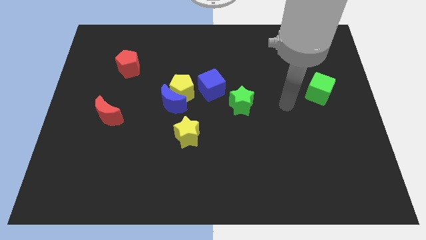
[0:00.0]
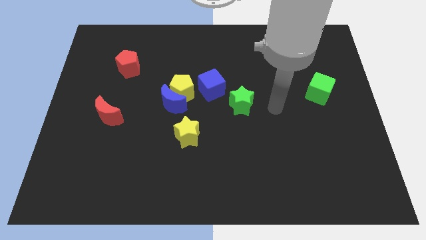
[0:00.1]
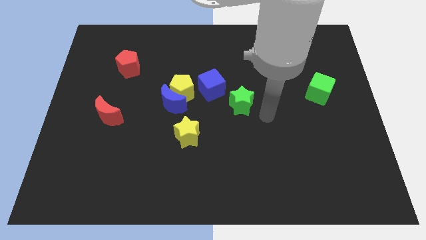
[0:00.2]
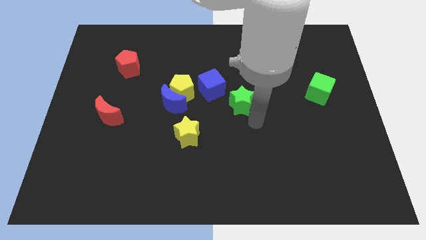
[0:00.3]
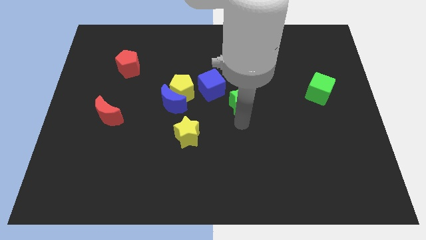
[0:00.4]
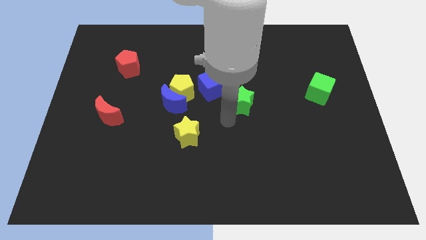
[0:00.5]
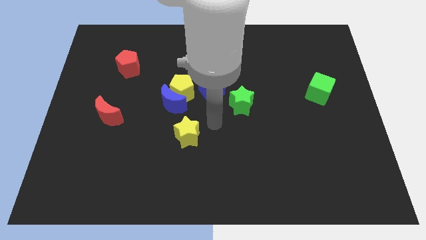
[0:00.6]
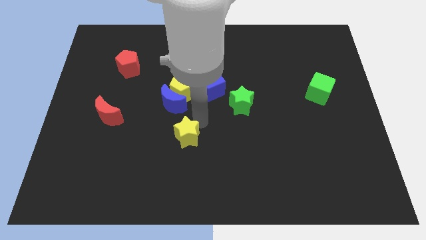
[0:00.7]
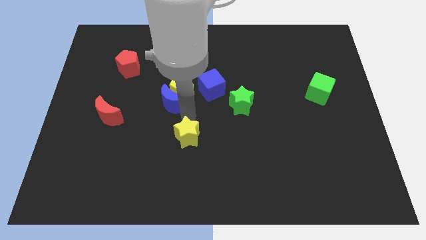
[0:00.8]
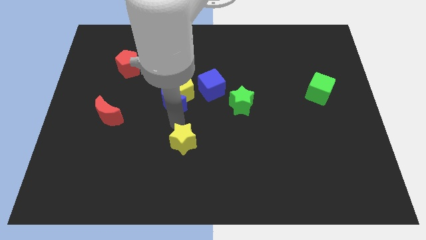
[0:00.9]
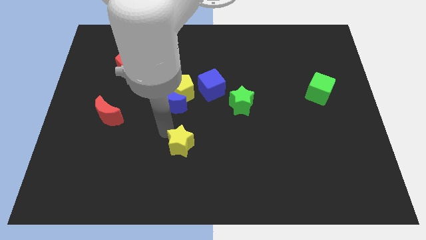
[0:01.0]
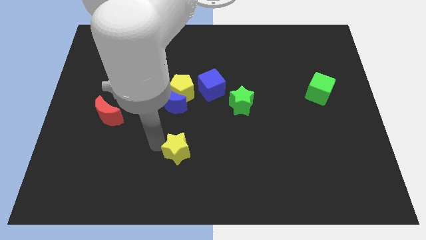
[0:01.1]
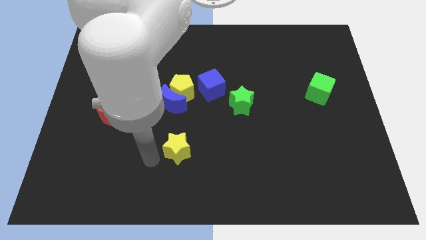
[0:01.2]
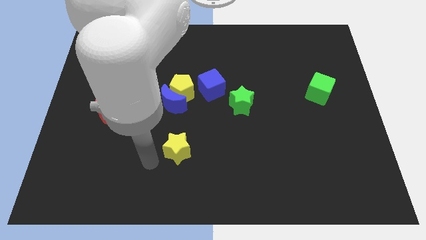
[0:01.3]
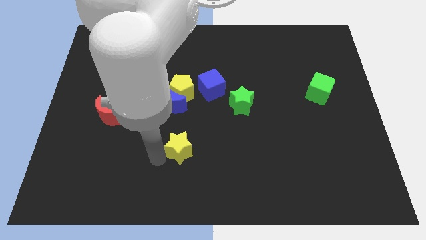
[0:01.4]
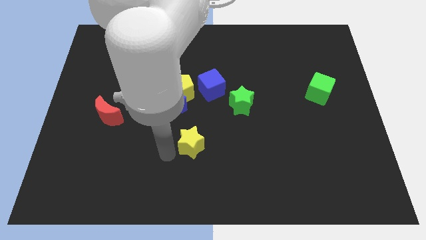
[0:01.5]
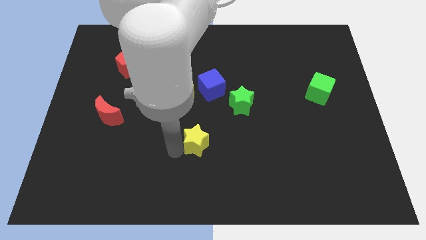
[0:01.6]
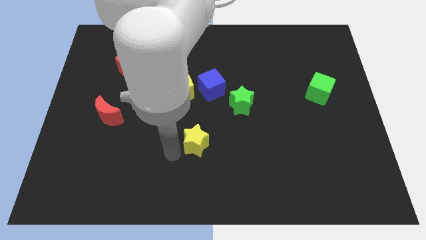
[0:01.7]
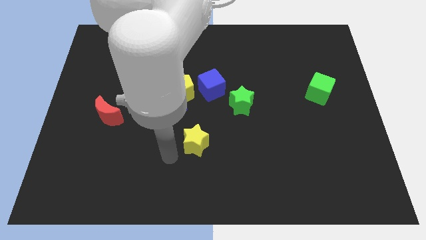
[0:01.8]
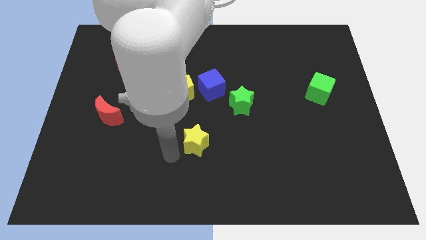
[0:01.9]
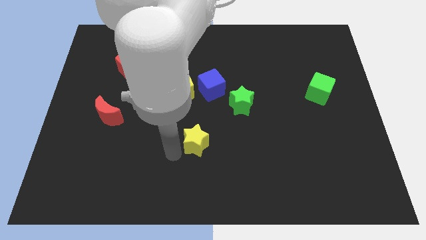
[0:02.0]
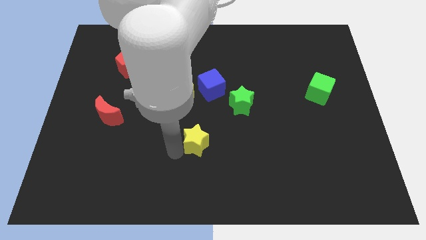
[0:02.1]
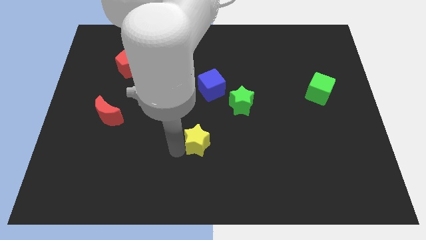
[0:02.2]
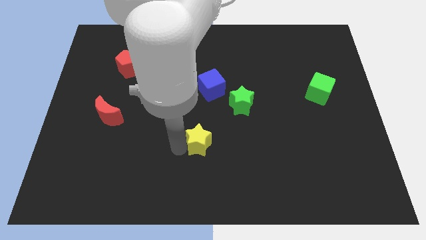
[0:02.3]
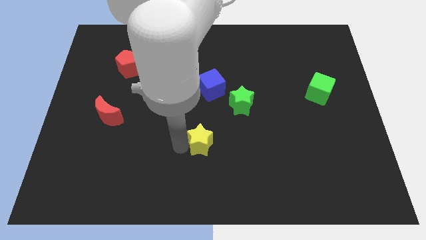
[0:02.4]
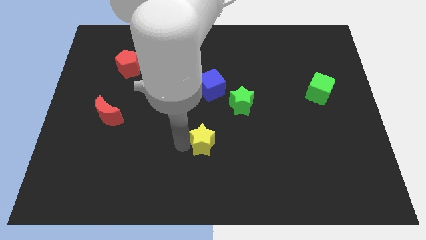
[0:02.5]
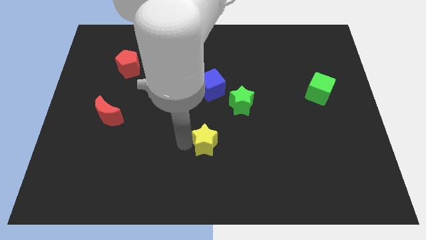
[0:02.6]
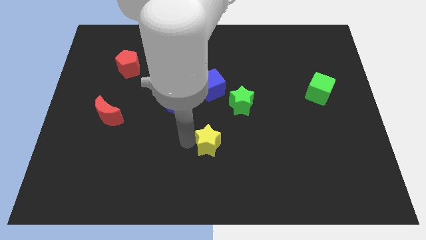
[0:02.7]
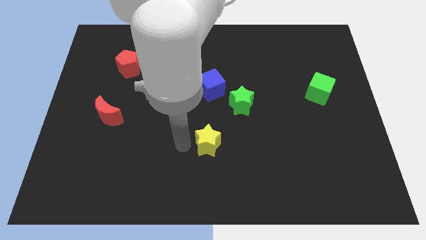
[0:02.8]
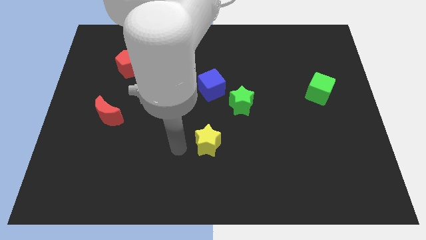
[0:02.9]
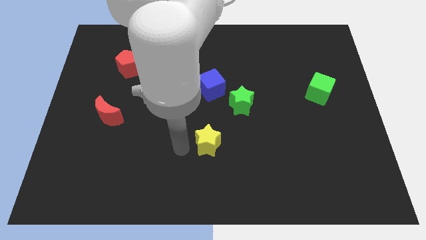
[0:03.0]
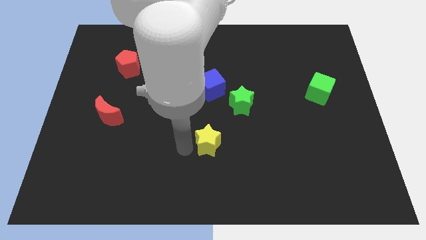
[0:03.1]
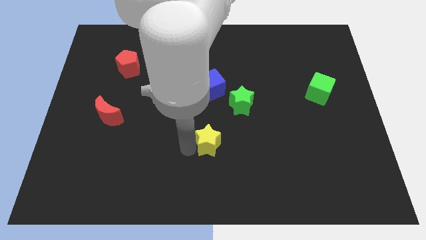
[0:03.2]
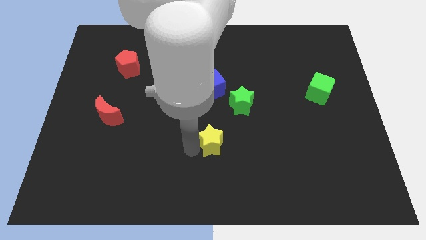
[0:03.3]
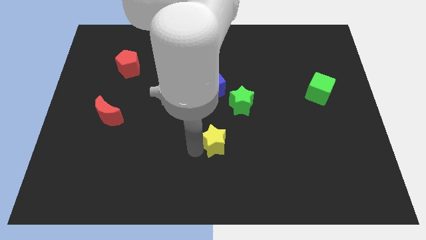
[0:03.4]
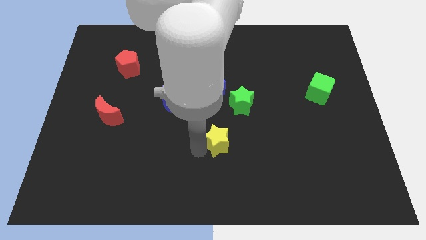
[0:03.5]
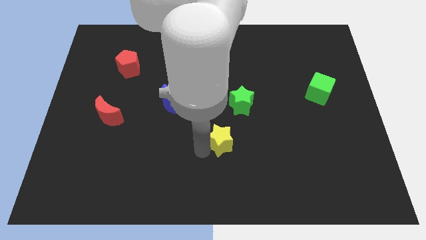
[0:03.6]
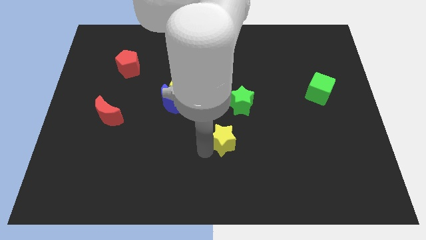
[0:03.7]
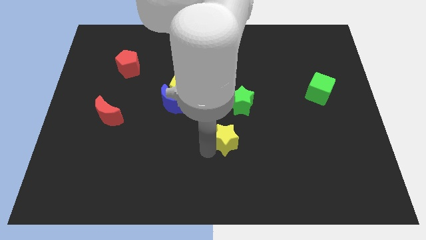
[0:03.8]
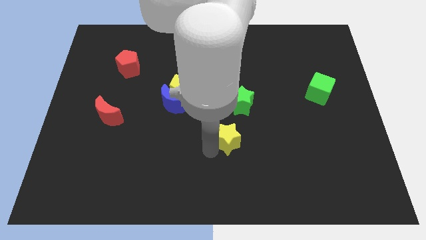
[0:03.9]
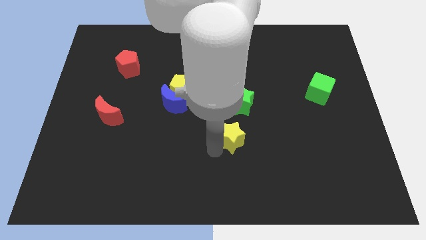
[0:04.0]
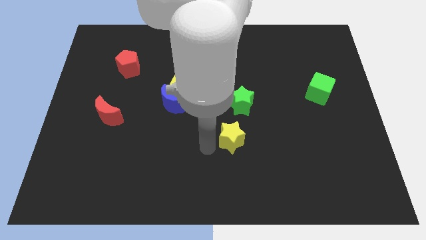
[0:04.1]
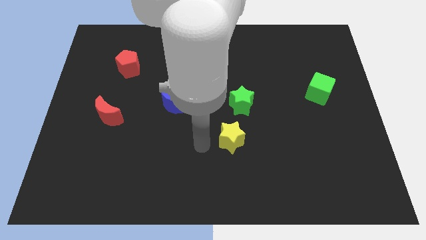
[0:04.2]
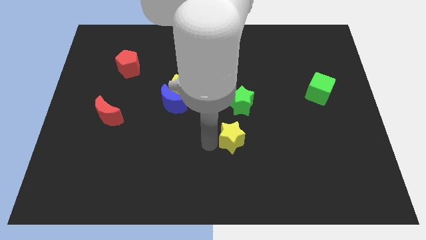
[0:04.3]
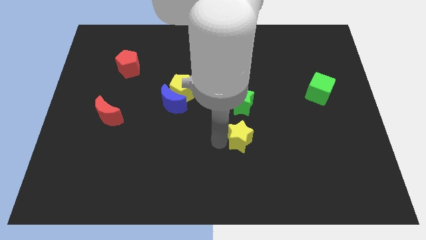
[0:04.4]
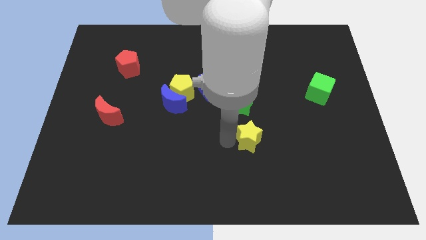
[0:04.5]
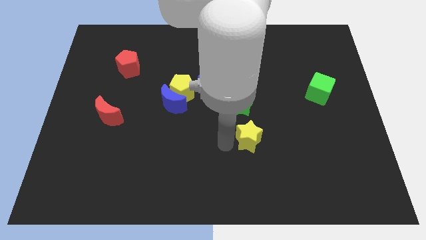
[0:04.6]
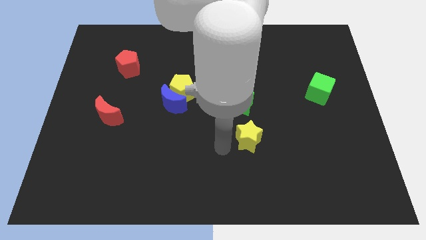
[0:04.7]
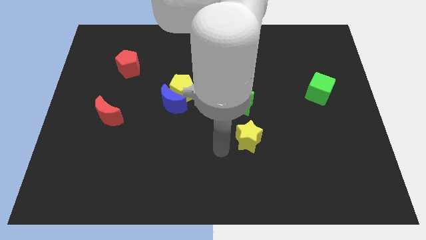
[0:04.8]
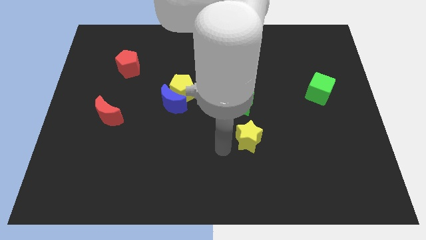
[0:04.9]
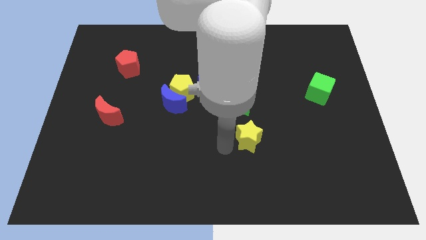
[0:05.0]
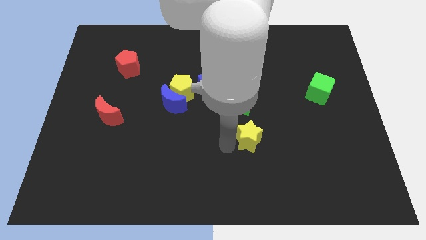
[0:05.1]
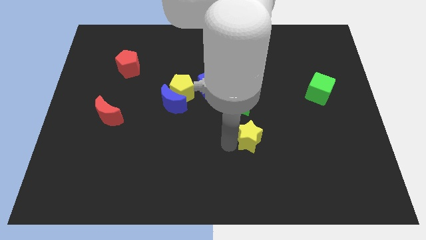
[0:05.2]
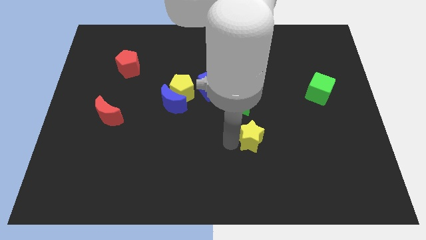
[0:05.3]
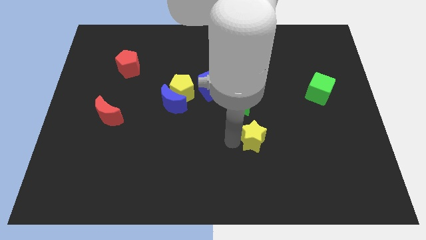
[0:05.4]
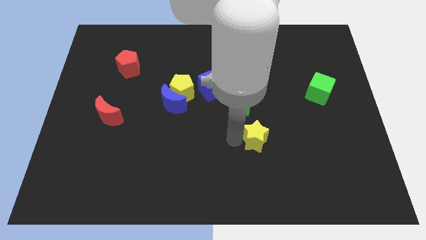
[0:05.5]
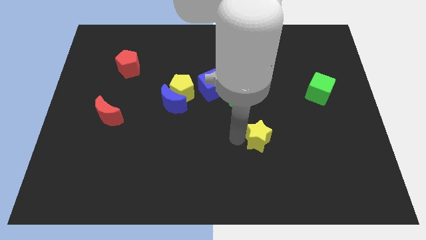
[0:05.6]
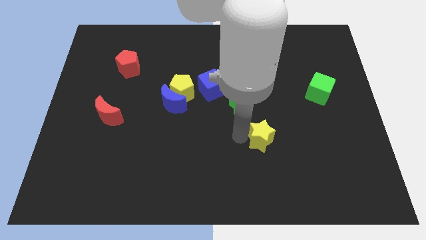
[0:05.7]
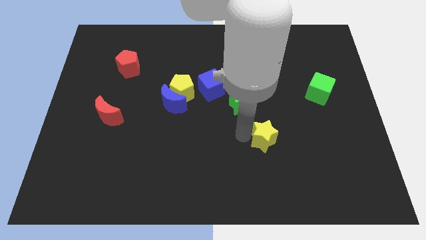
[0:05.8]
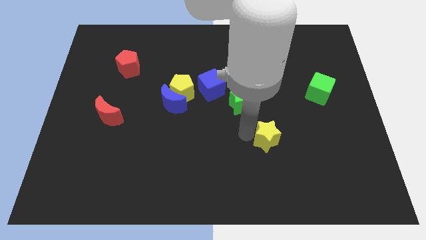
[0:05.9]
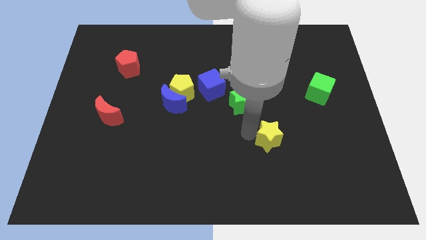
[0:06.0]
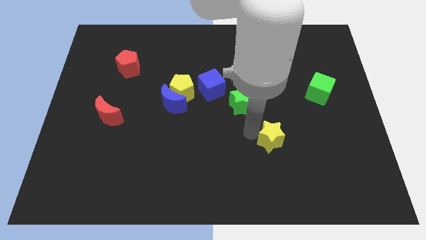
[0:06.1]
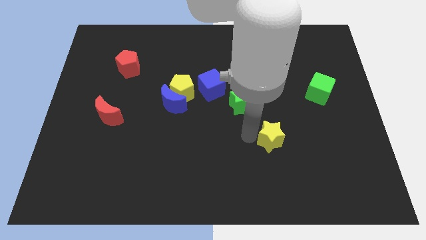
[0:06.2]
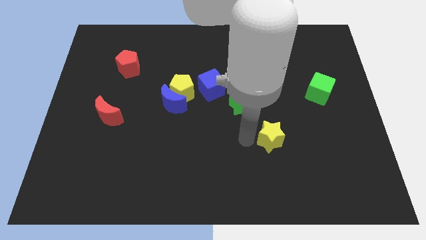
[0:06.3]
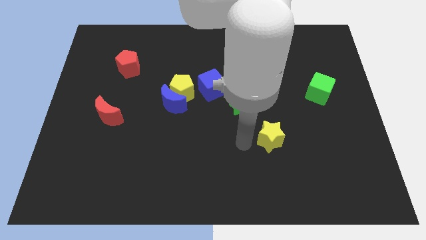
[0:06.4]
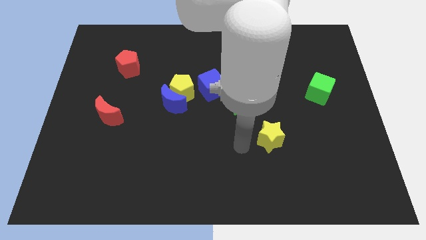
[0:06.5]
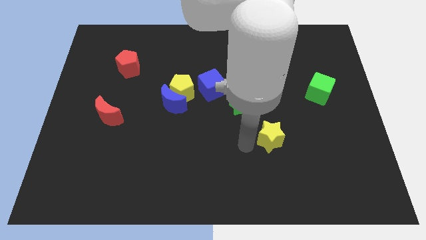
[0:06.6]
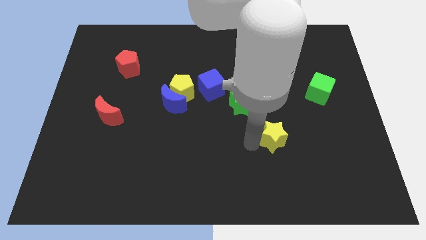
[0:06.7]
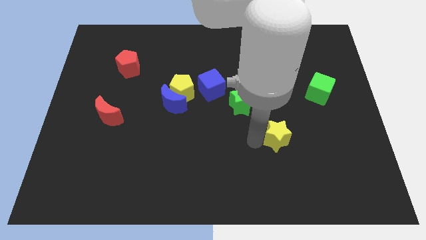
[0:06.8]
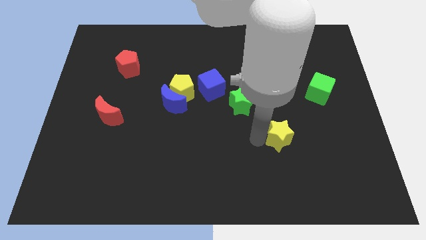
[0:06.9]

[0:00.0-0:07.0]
slide the yellow star right

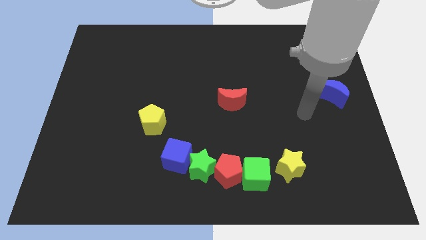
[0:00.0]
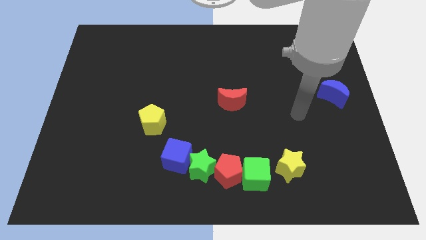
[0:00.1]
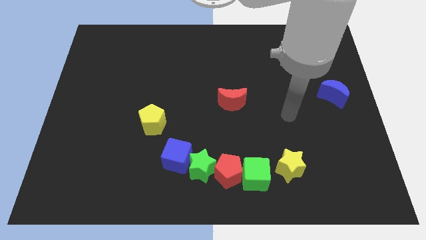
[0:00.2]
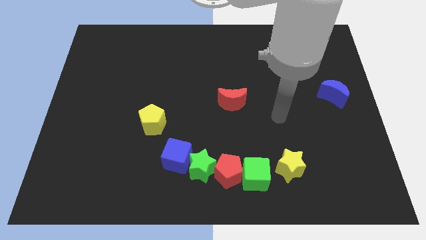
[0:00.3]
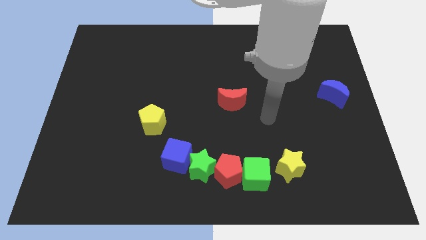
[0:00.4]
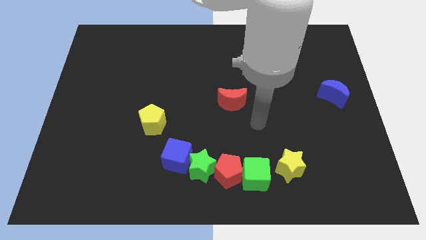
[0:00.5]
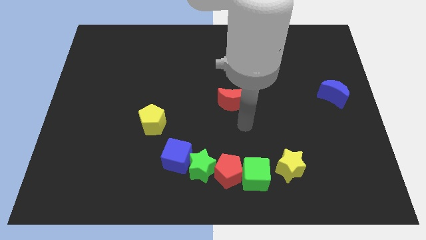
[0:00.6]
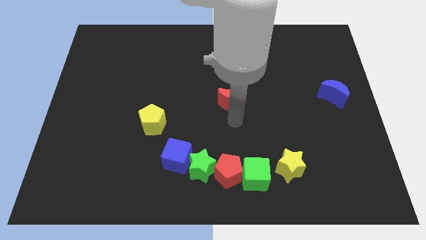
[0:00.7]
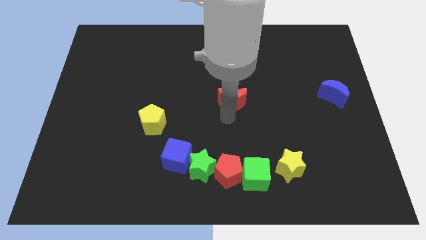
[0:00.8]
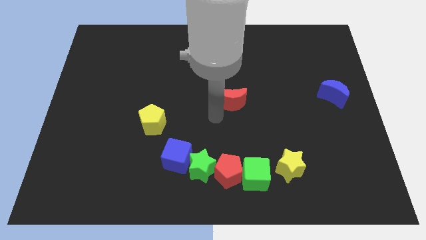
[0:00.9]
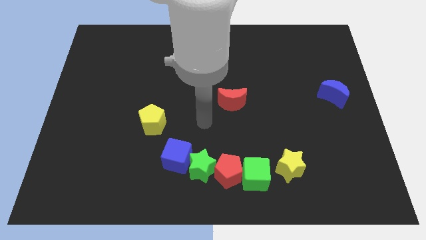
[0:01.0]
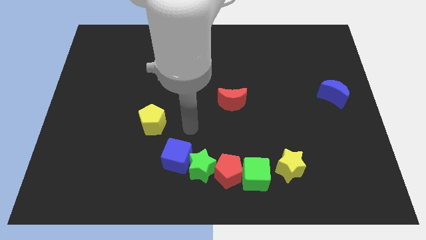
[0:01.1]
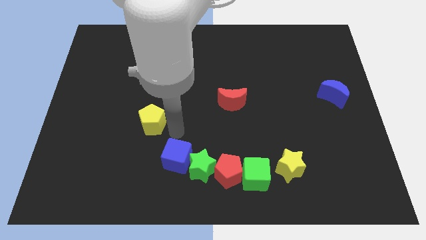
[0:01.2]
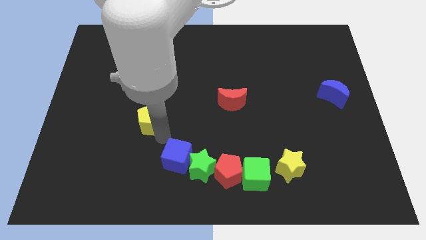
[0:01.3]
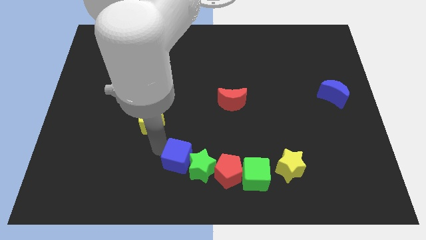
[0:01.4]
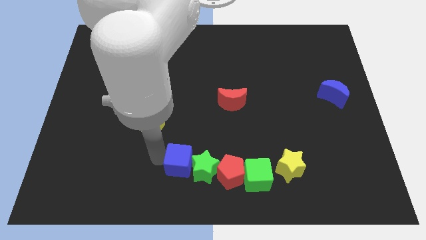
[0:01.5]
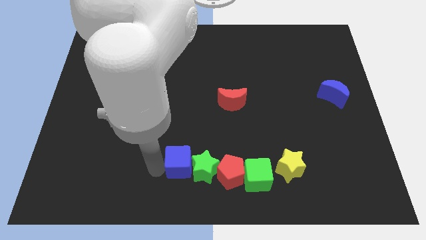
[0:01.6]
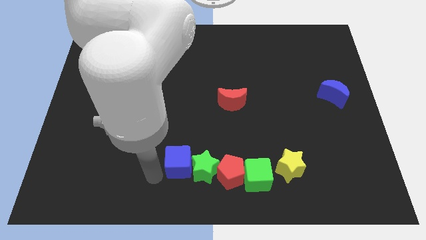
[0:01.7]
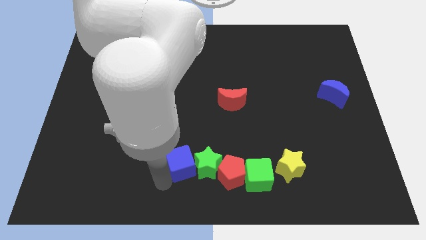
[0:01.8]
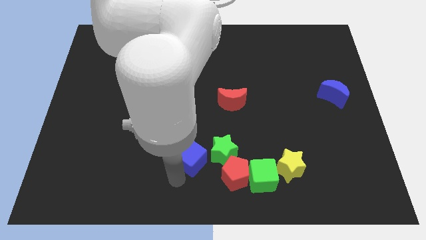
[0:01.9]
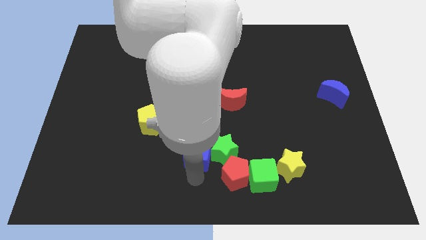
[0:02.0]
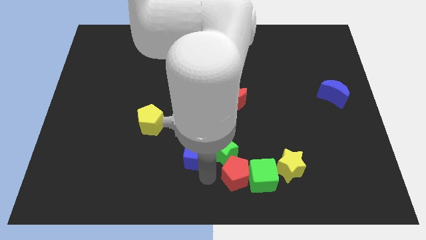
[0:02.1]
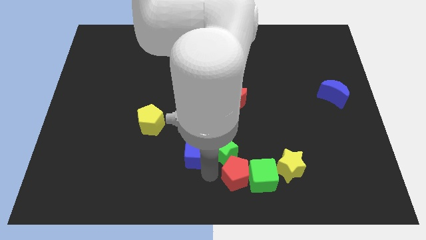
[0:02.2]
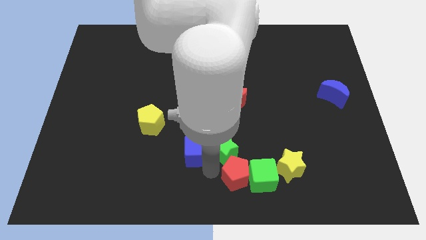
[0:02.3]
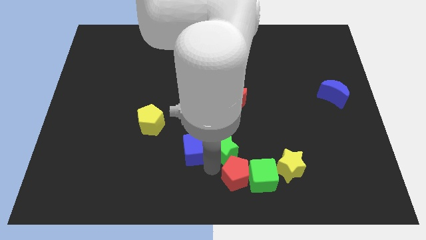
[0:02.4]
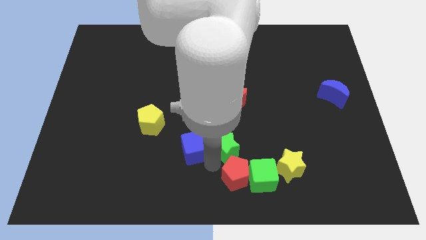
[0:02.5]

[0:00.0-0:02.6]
slide the green star a little bit upwards and right diagonally
